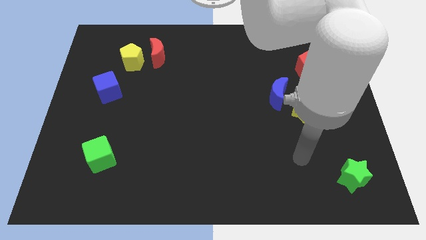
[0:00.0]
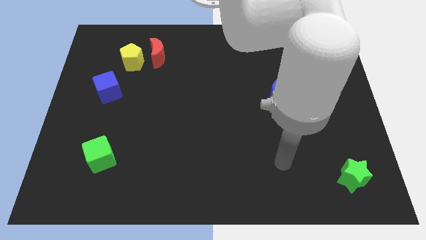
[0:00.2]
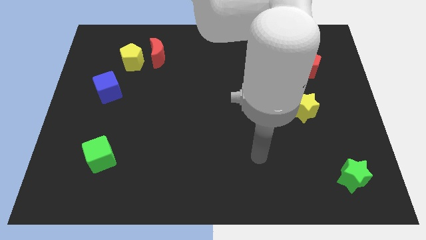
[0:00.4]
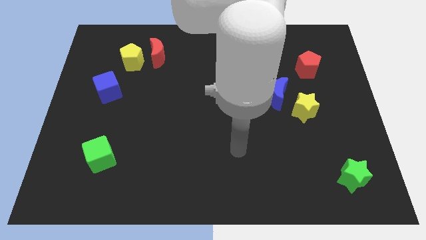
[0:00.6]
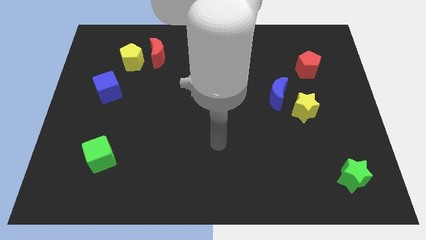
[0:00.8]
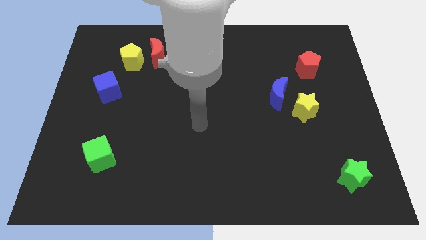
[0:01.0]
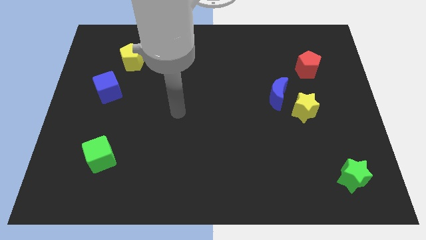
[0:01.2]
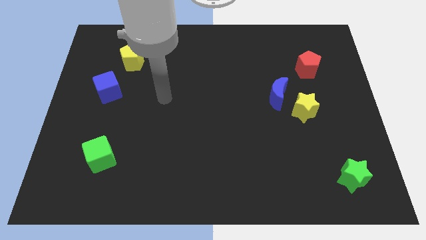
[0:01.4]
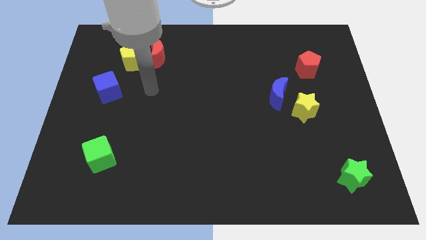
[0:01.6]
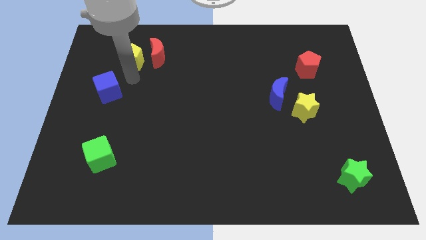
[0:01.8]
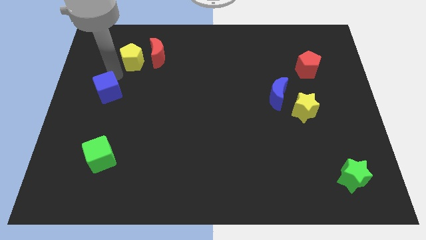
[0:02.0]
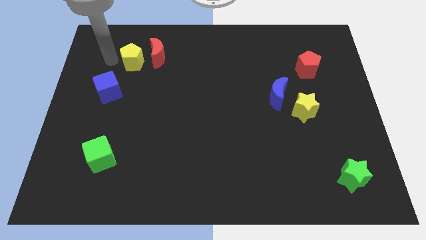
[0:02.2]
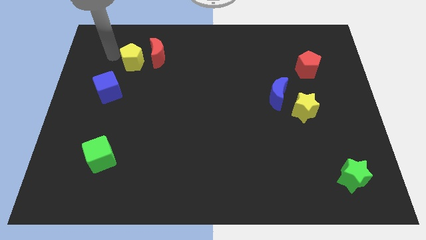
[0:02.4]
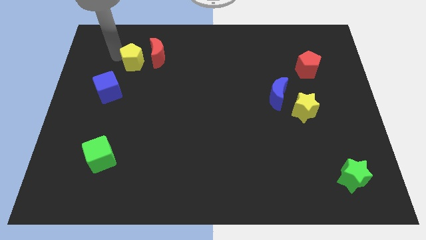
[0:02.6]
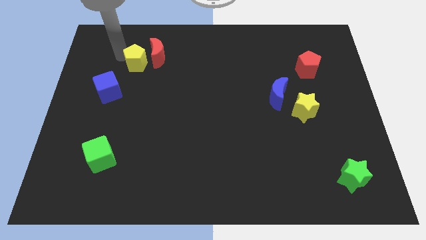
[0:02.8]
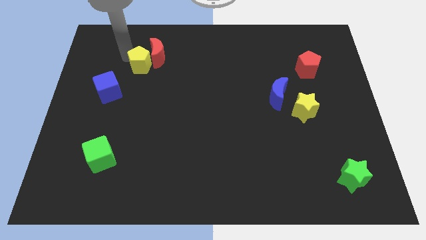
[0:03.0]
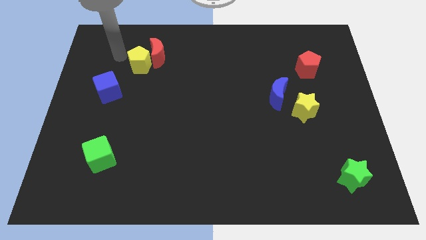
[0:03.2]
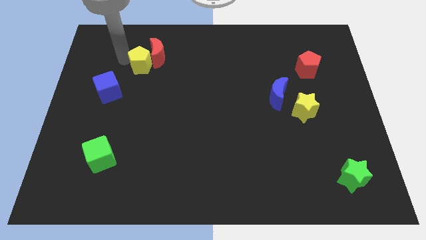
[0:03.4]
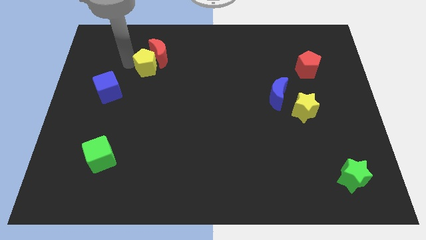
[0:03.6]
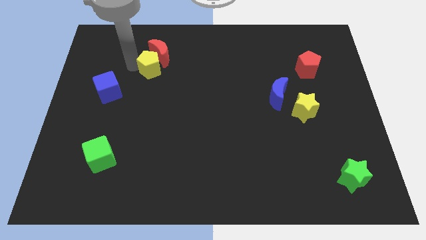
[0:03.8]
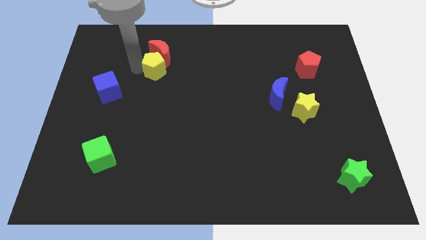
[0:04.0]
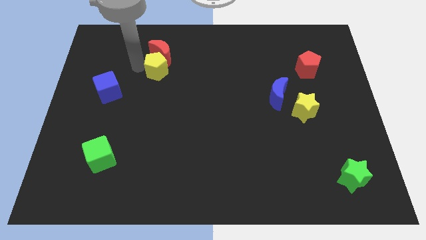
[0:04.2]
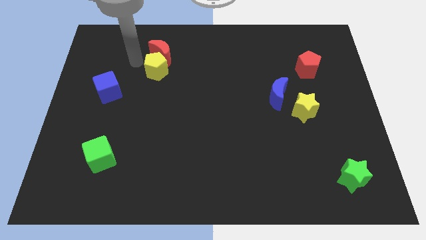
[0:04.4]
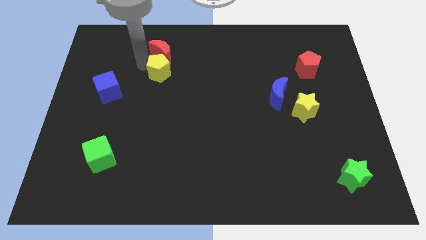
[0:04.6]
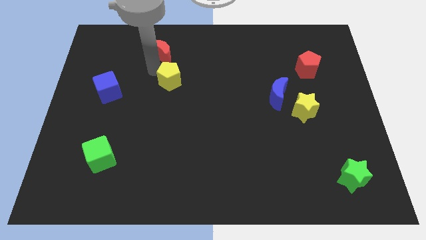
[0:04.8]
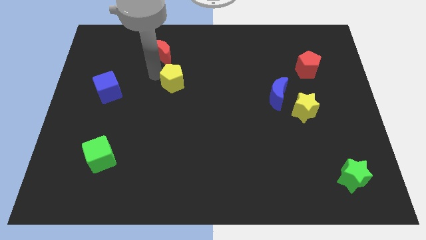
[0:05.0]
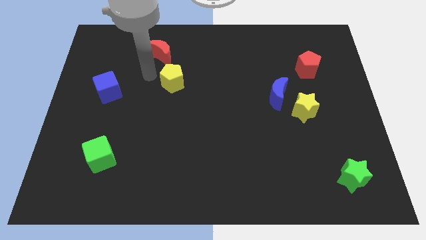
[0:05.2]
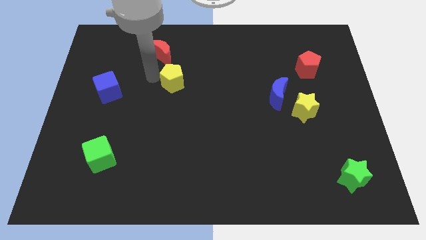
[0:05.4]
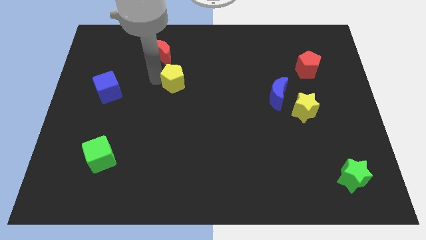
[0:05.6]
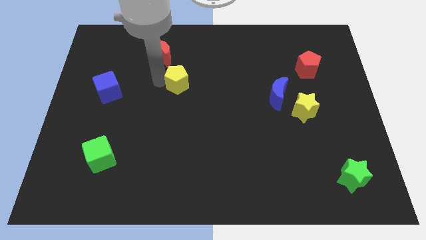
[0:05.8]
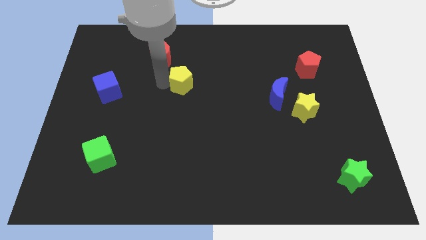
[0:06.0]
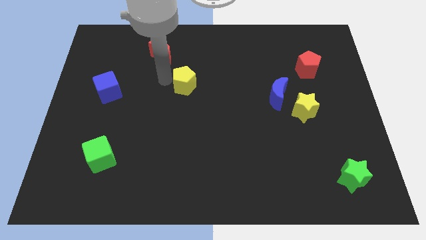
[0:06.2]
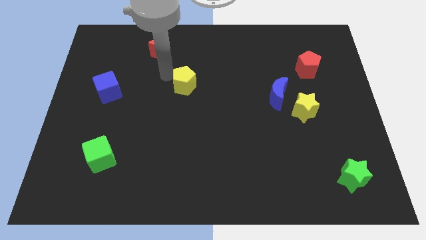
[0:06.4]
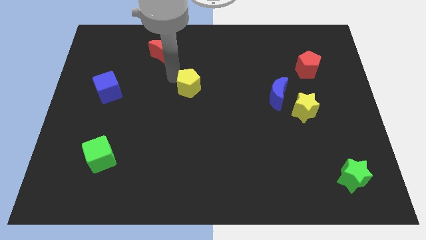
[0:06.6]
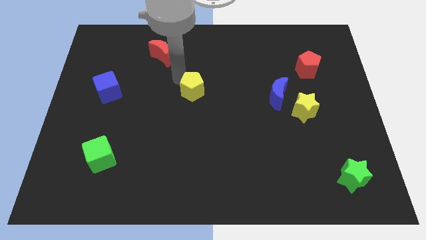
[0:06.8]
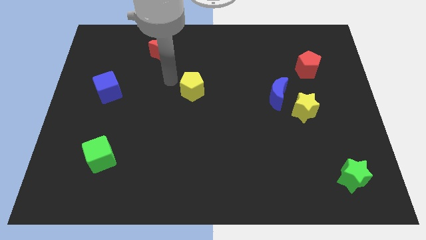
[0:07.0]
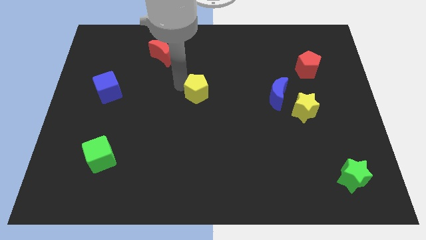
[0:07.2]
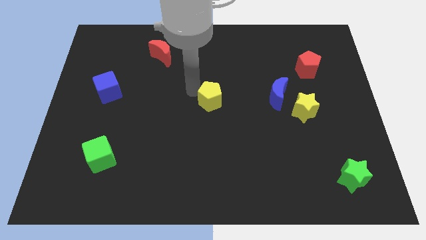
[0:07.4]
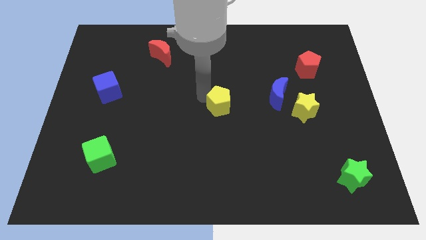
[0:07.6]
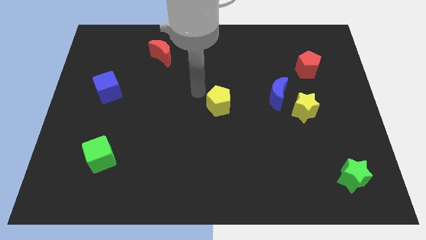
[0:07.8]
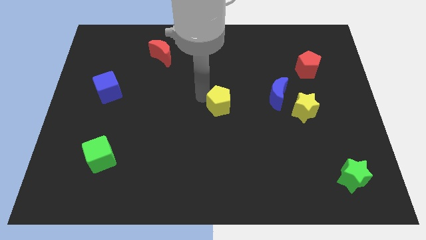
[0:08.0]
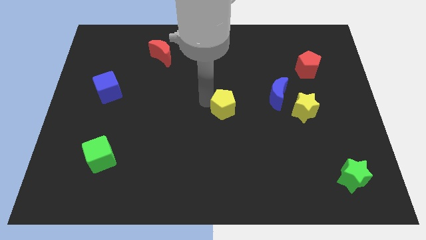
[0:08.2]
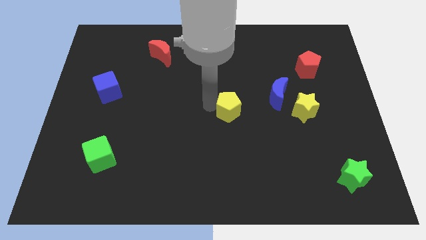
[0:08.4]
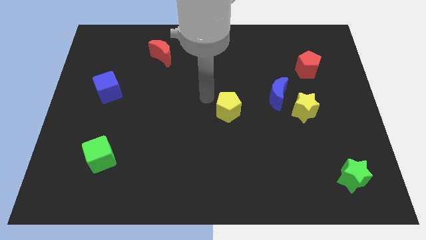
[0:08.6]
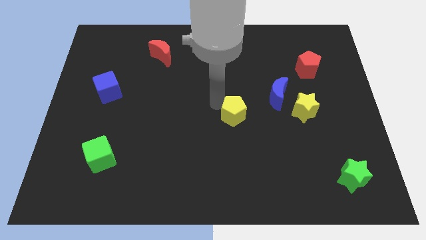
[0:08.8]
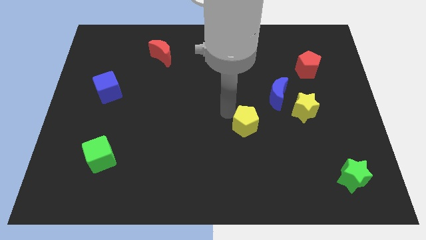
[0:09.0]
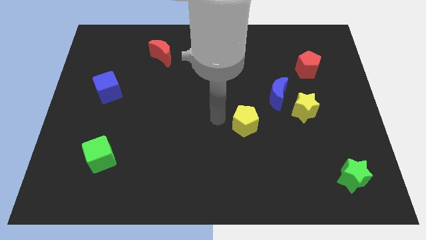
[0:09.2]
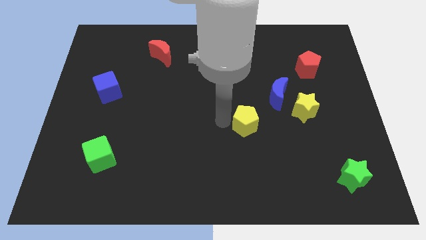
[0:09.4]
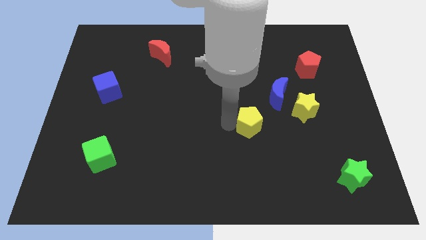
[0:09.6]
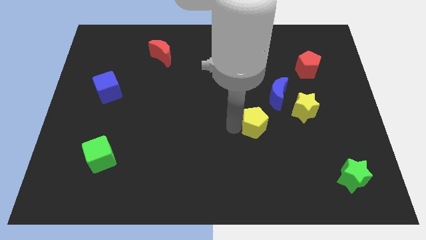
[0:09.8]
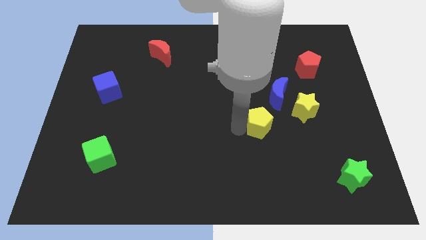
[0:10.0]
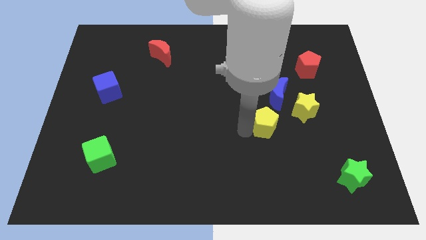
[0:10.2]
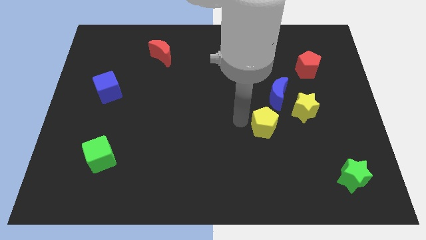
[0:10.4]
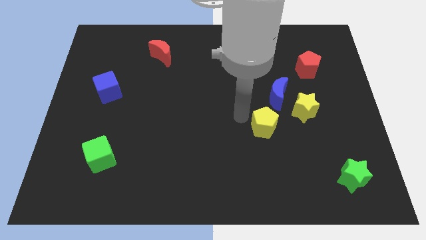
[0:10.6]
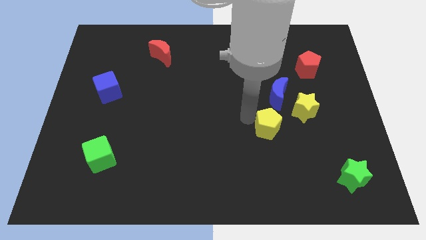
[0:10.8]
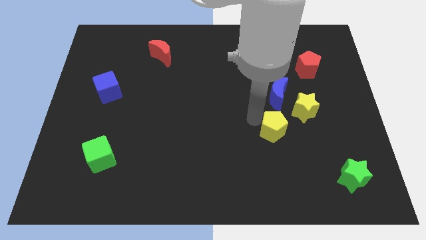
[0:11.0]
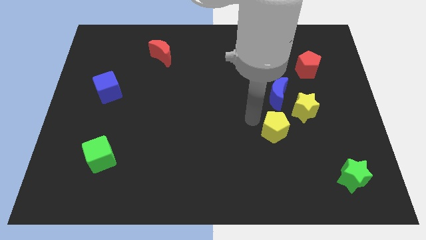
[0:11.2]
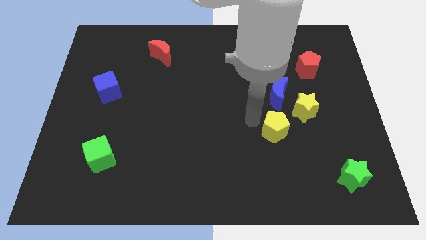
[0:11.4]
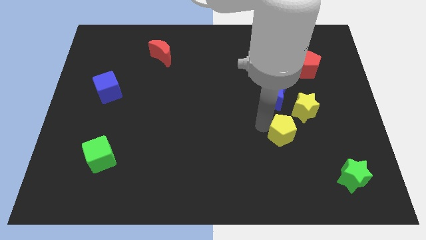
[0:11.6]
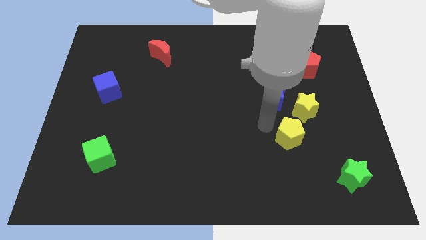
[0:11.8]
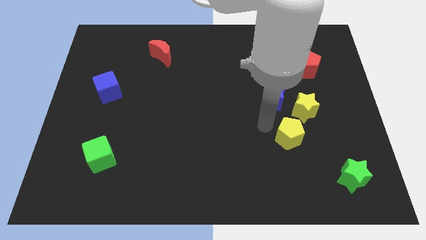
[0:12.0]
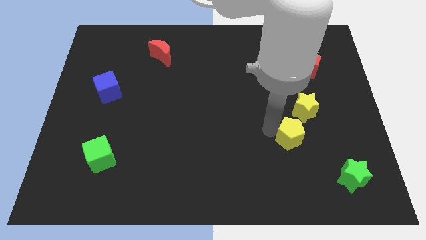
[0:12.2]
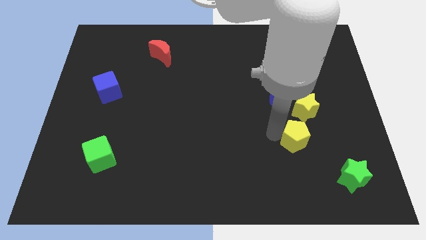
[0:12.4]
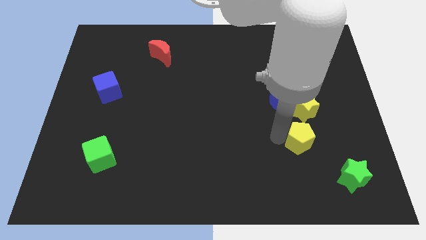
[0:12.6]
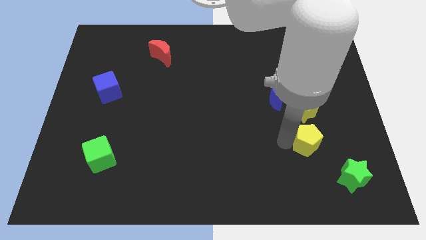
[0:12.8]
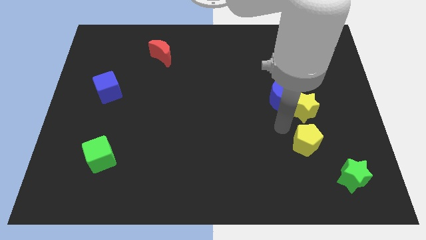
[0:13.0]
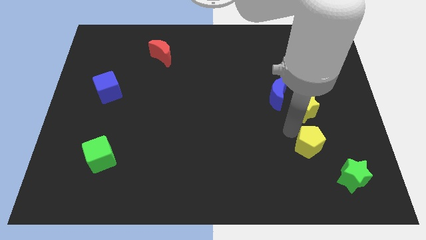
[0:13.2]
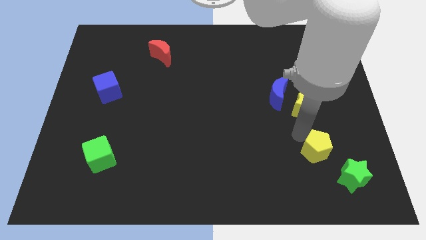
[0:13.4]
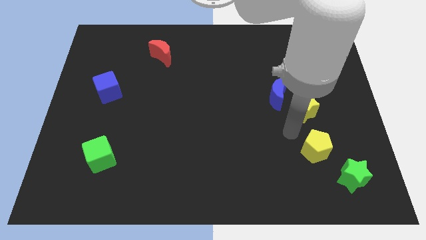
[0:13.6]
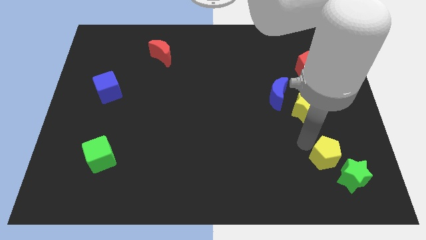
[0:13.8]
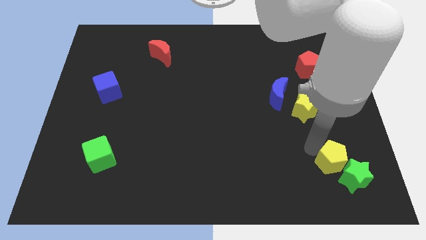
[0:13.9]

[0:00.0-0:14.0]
move the yellow pentagon towards the green star
